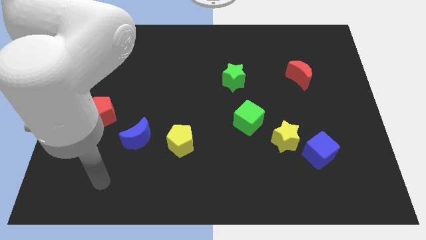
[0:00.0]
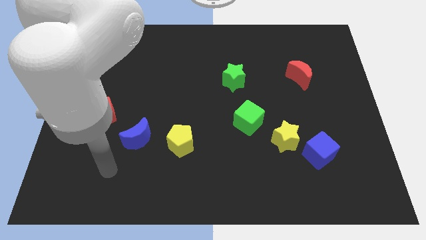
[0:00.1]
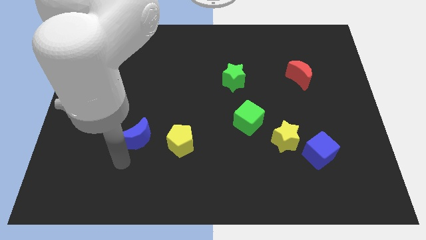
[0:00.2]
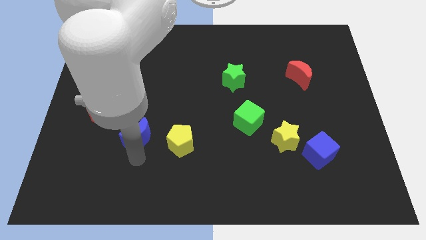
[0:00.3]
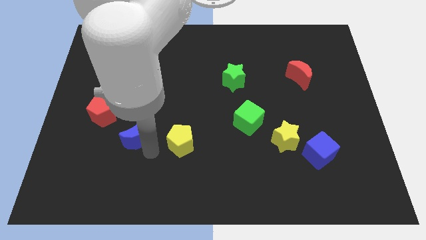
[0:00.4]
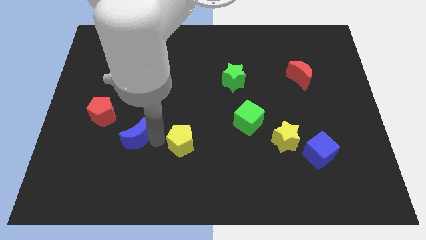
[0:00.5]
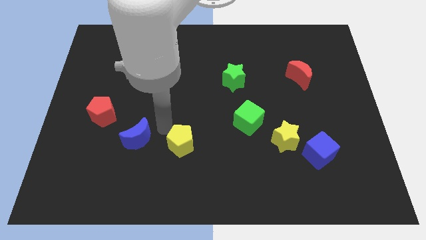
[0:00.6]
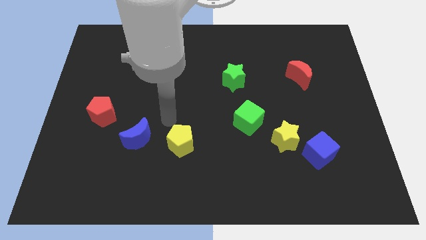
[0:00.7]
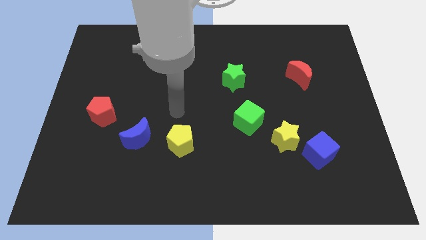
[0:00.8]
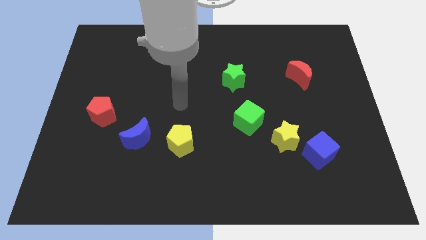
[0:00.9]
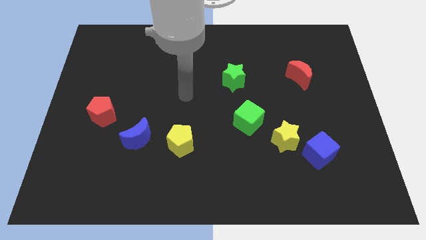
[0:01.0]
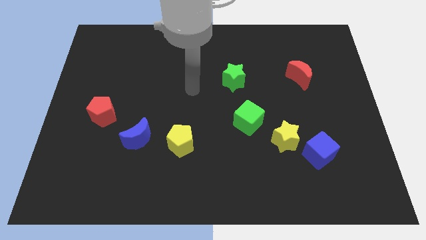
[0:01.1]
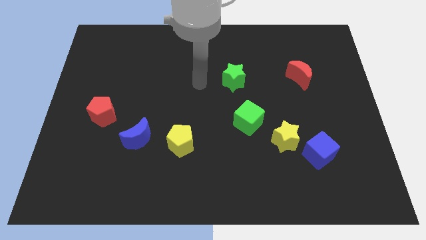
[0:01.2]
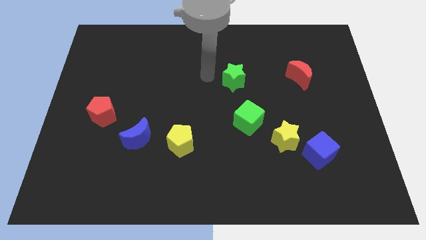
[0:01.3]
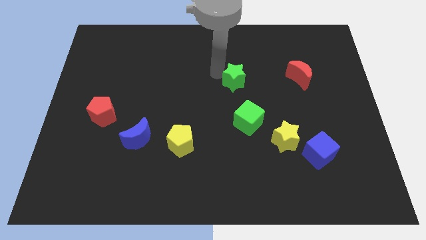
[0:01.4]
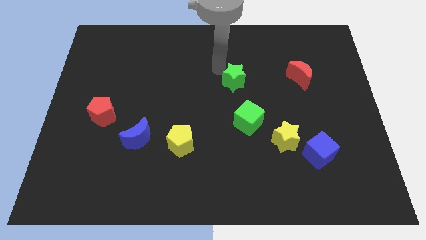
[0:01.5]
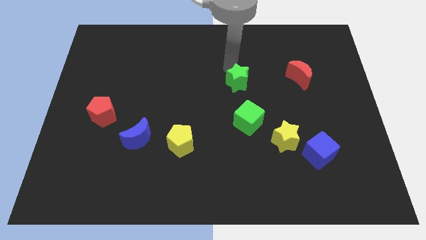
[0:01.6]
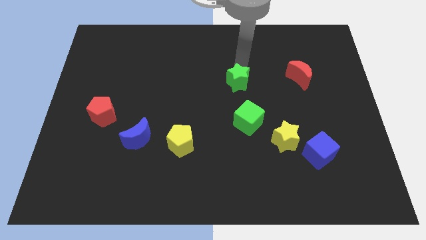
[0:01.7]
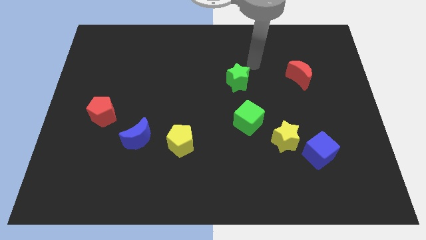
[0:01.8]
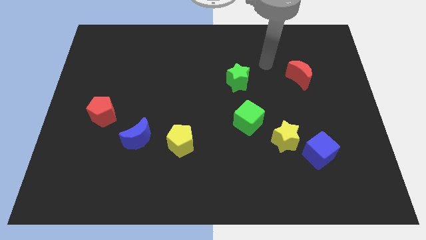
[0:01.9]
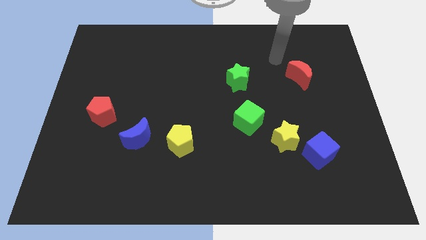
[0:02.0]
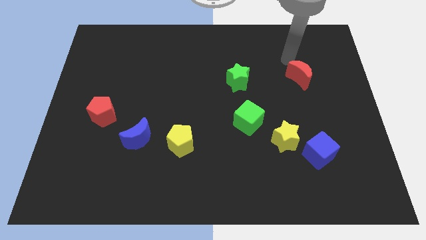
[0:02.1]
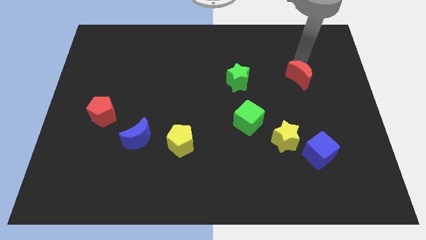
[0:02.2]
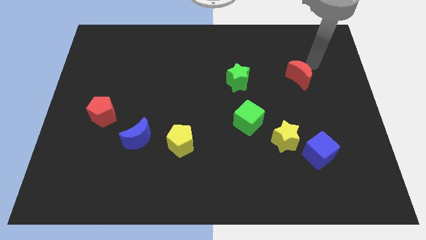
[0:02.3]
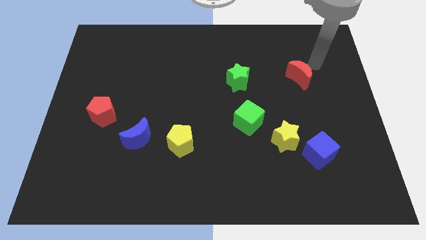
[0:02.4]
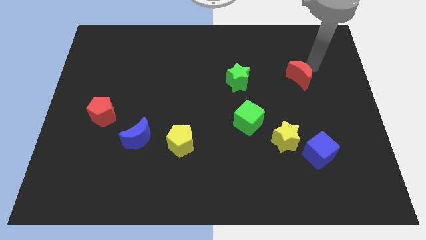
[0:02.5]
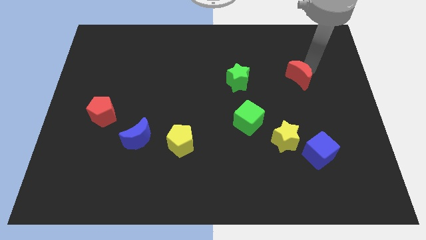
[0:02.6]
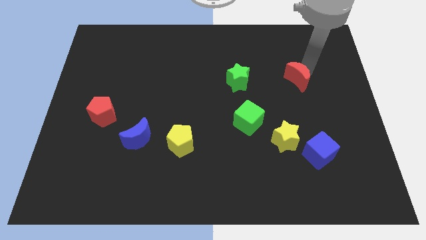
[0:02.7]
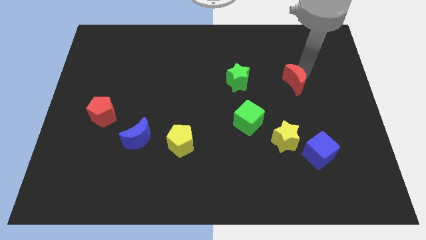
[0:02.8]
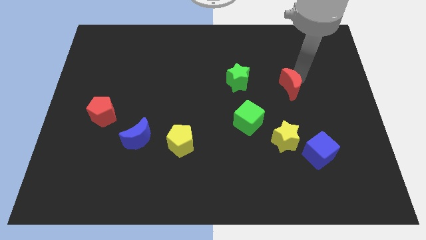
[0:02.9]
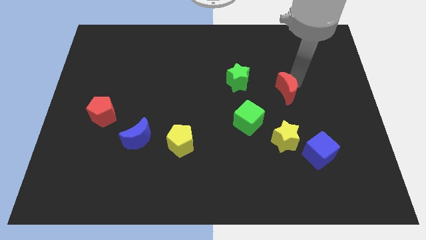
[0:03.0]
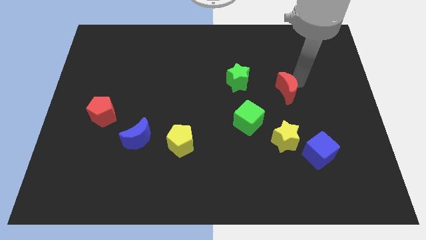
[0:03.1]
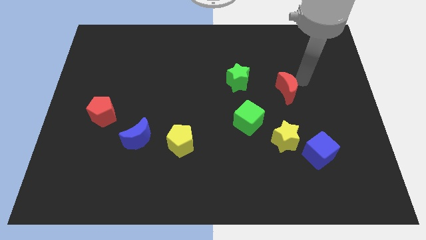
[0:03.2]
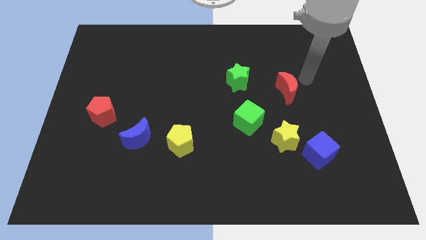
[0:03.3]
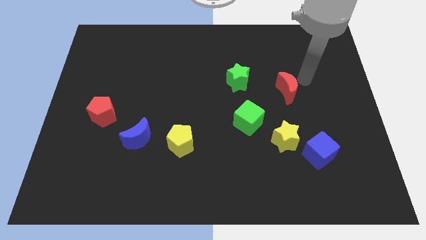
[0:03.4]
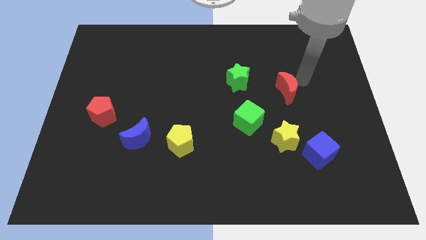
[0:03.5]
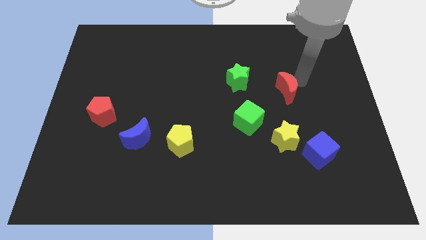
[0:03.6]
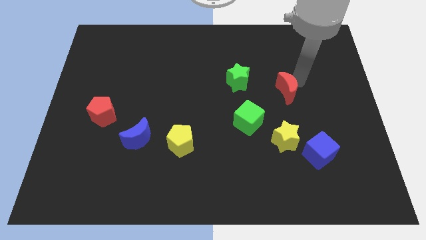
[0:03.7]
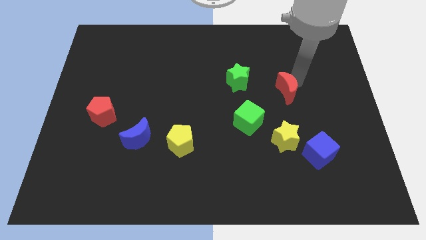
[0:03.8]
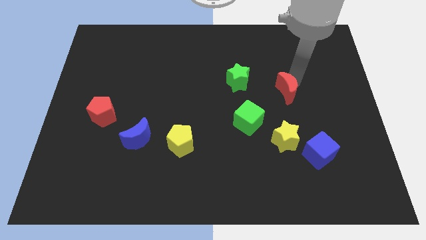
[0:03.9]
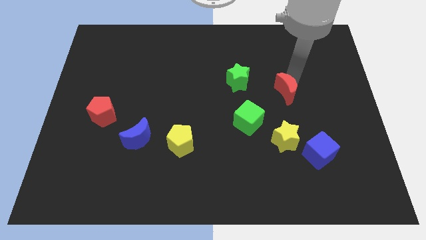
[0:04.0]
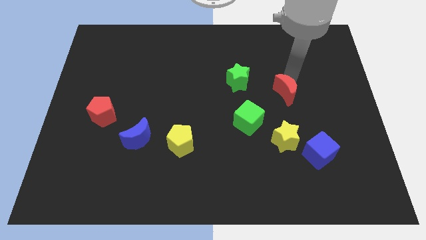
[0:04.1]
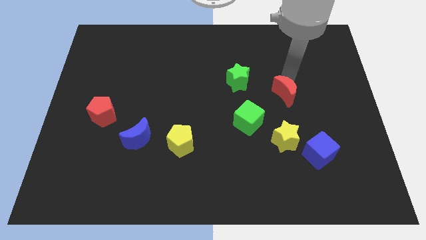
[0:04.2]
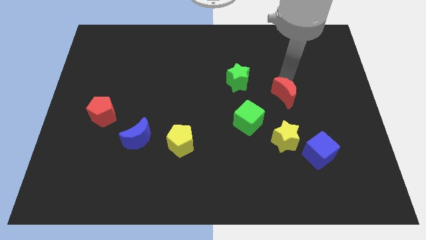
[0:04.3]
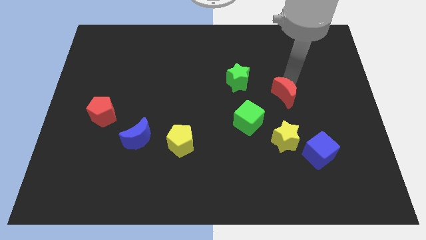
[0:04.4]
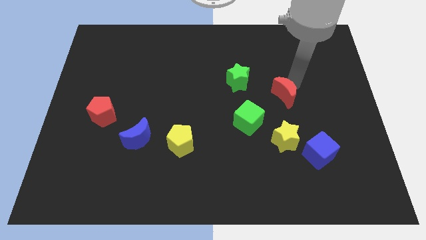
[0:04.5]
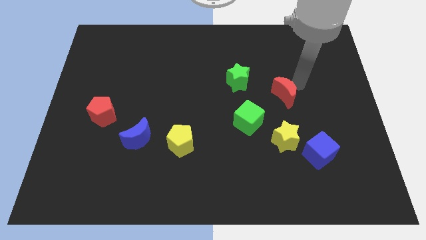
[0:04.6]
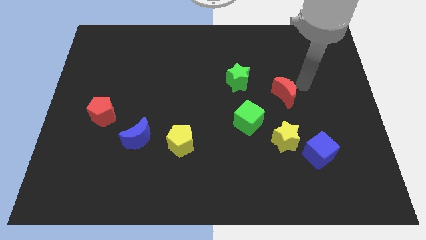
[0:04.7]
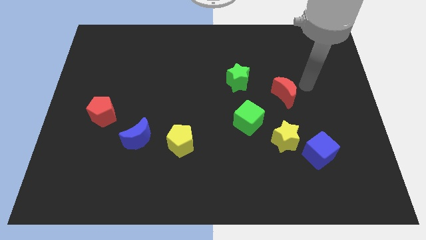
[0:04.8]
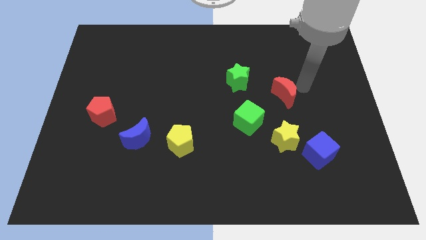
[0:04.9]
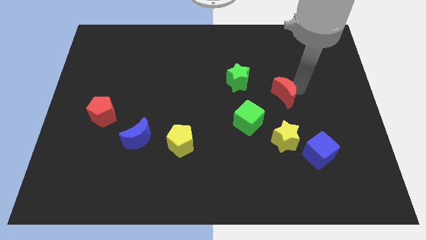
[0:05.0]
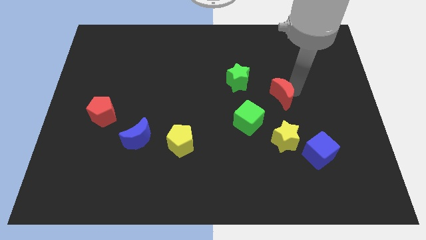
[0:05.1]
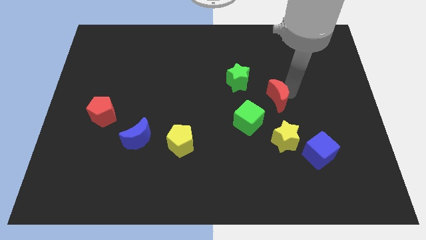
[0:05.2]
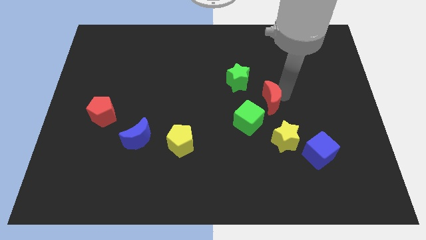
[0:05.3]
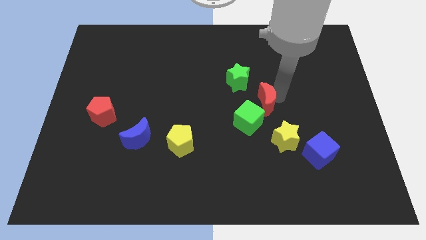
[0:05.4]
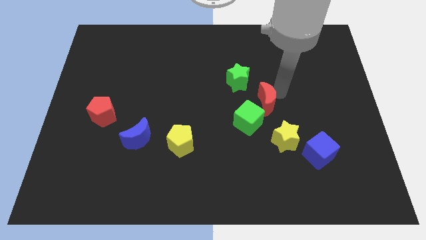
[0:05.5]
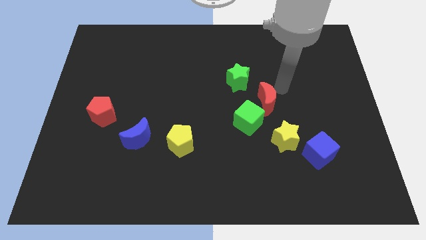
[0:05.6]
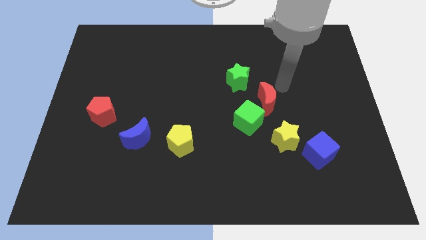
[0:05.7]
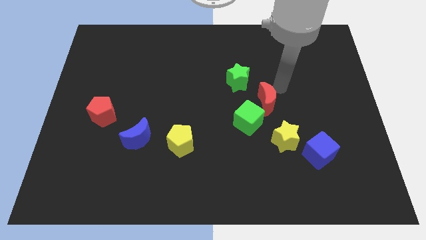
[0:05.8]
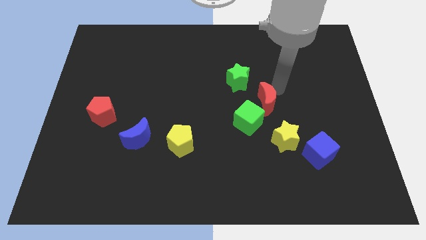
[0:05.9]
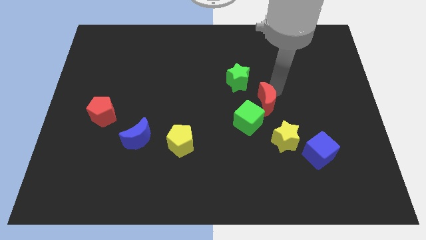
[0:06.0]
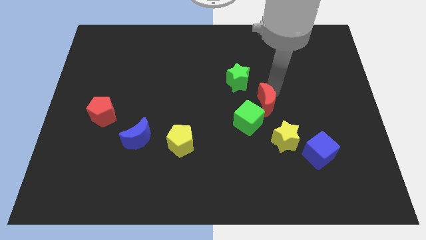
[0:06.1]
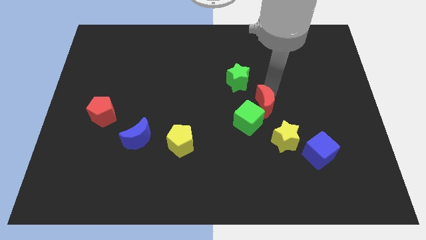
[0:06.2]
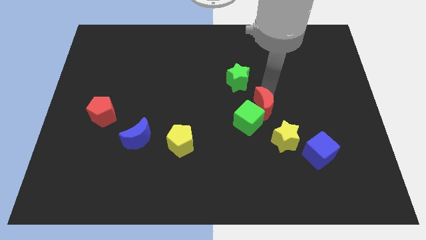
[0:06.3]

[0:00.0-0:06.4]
push the red moon close to the green cube

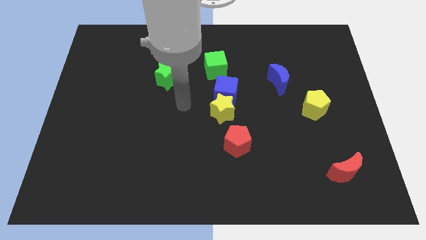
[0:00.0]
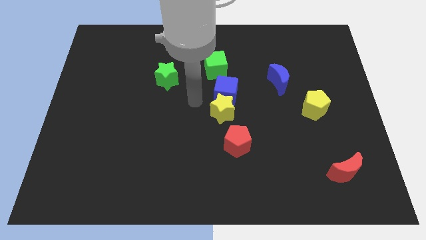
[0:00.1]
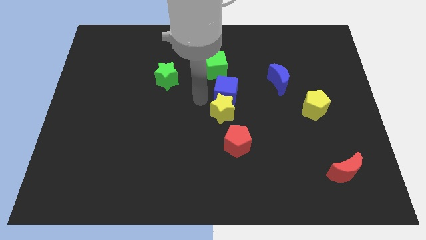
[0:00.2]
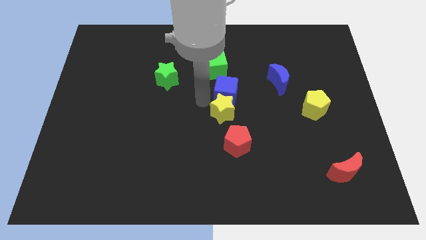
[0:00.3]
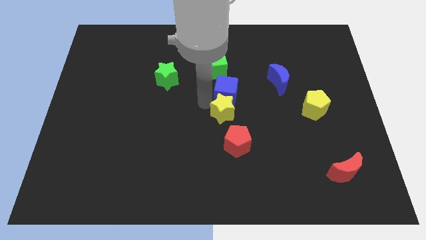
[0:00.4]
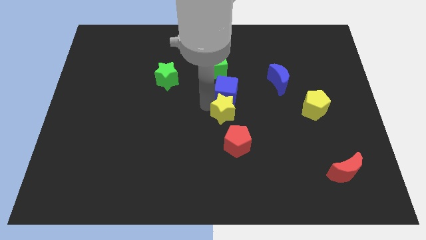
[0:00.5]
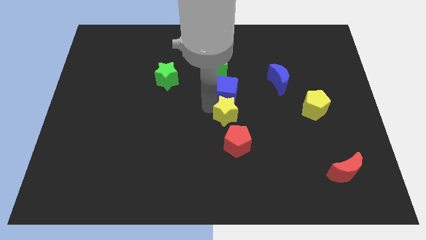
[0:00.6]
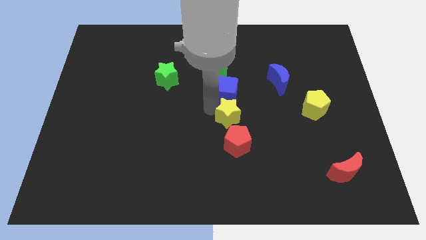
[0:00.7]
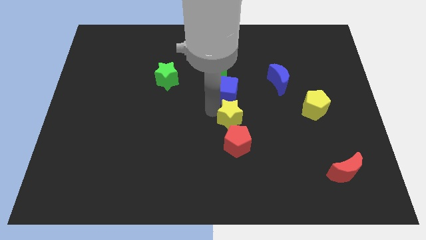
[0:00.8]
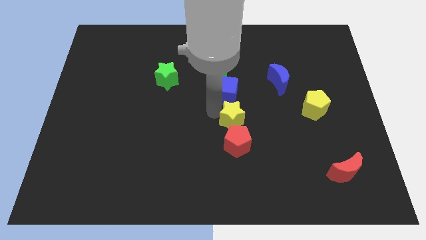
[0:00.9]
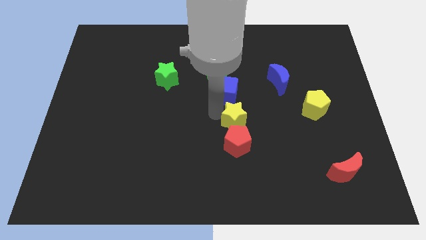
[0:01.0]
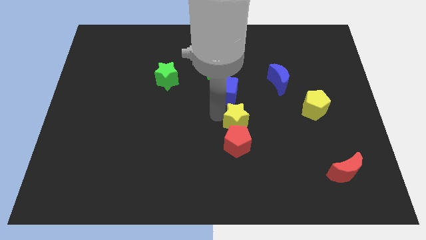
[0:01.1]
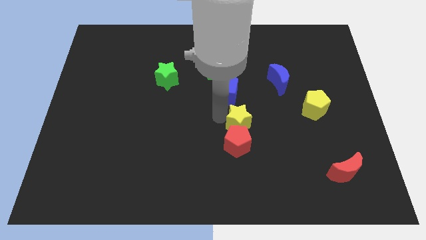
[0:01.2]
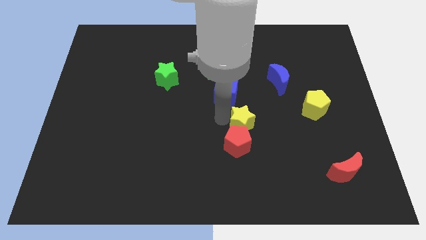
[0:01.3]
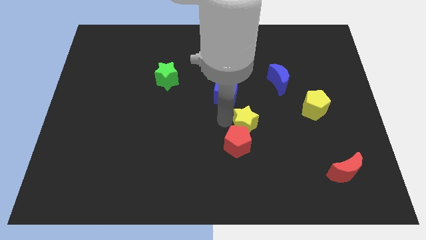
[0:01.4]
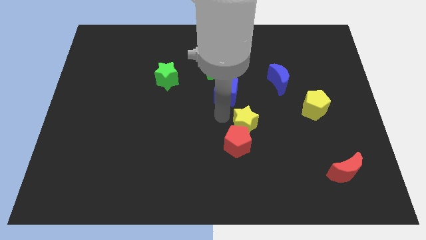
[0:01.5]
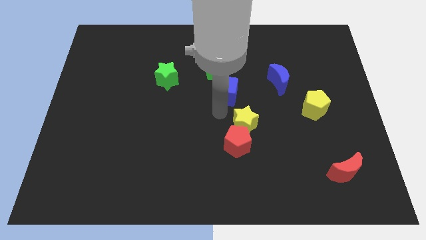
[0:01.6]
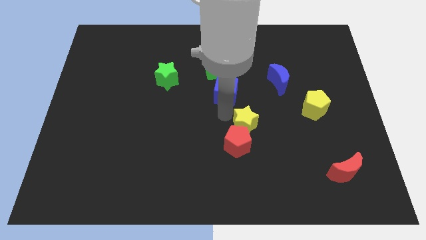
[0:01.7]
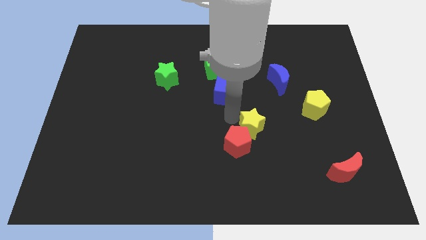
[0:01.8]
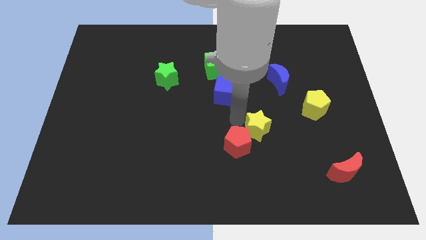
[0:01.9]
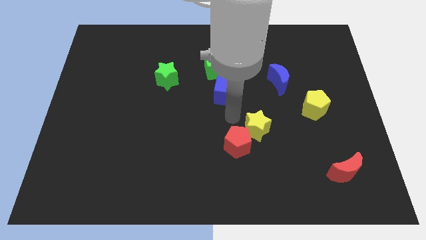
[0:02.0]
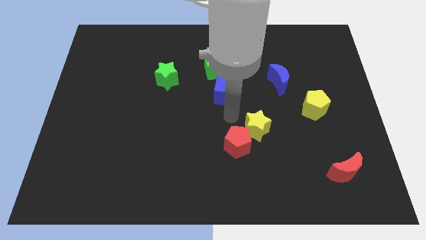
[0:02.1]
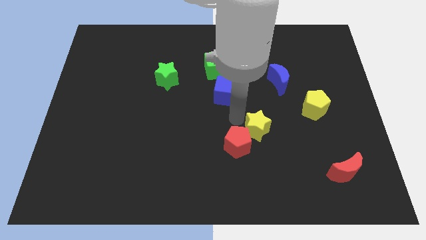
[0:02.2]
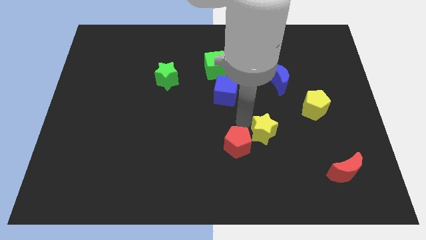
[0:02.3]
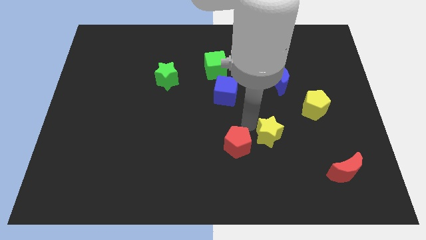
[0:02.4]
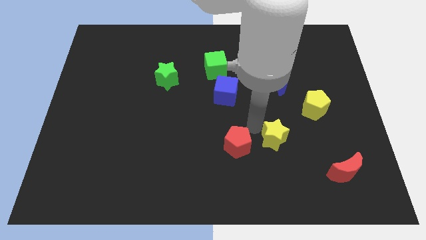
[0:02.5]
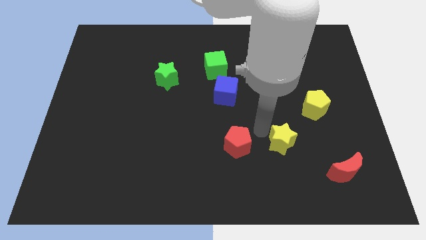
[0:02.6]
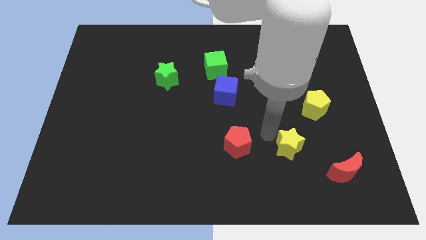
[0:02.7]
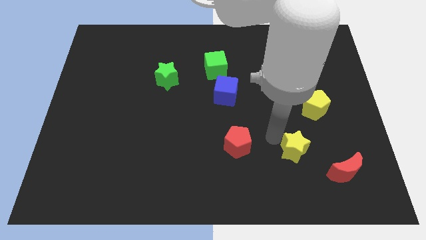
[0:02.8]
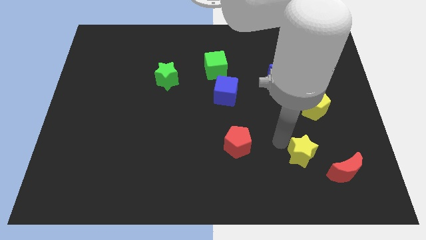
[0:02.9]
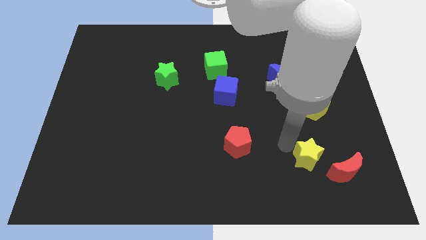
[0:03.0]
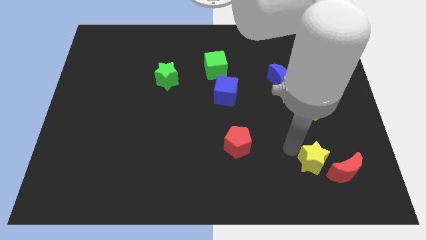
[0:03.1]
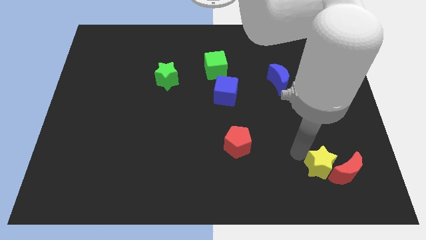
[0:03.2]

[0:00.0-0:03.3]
move the yellow star to the red moon
